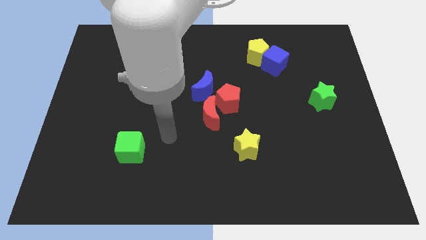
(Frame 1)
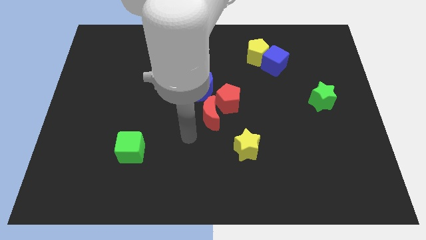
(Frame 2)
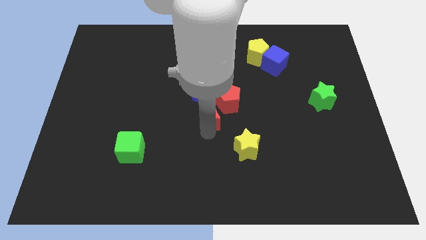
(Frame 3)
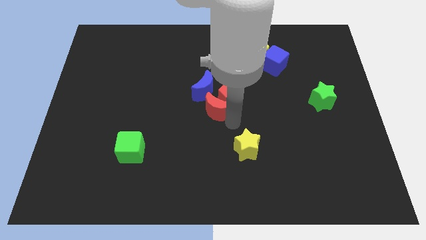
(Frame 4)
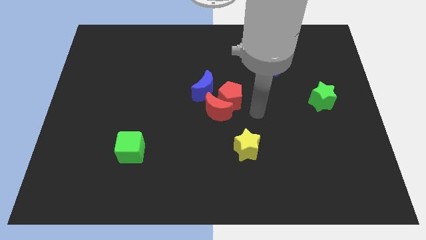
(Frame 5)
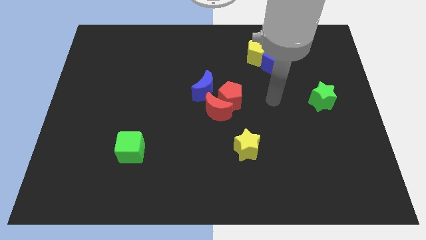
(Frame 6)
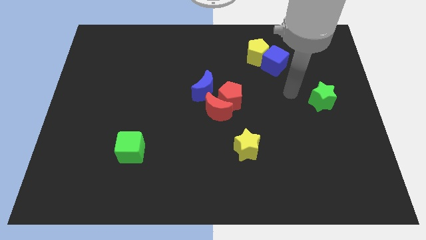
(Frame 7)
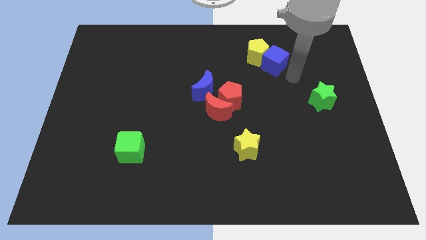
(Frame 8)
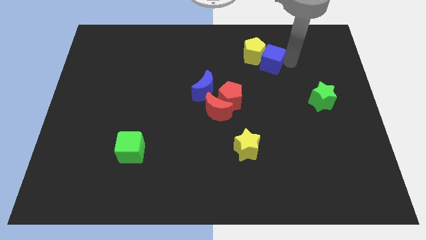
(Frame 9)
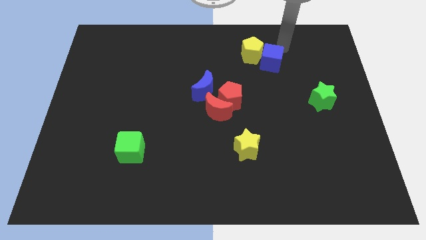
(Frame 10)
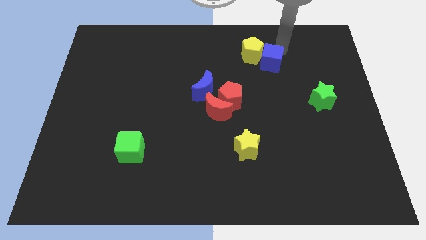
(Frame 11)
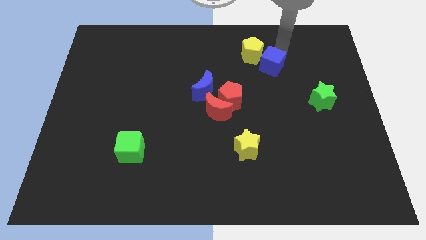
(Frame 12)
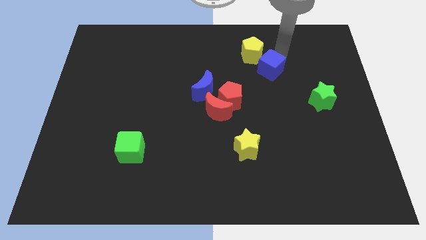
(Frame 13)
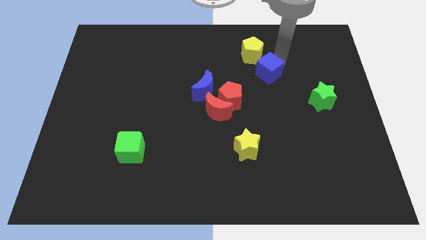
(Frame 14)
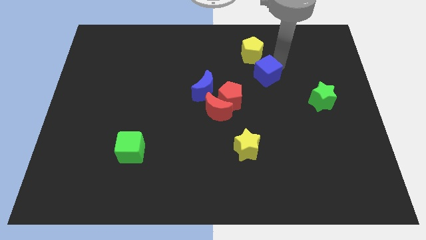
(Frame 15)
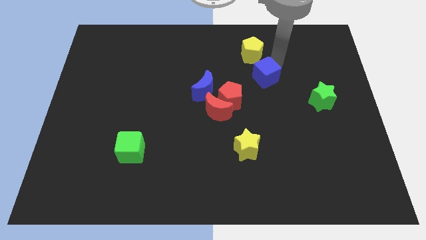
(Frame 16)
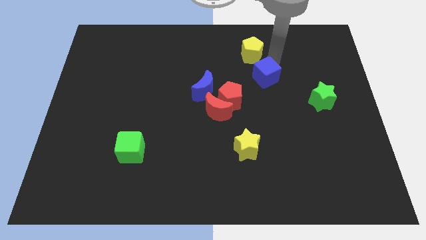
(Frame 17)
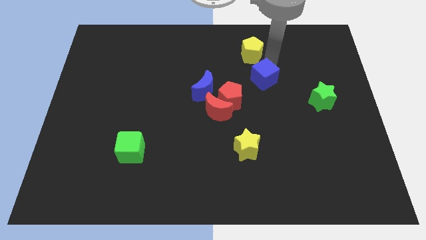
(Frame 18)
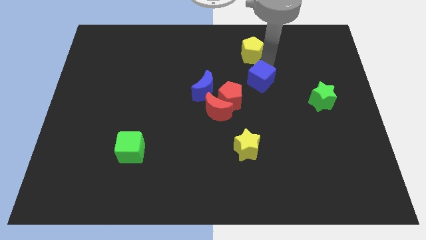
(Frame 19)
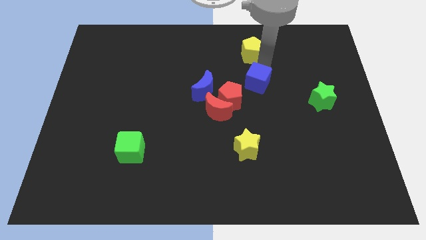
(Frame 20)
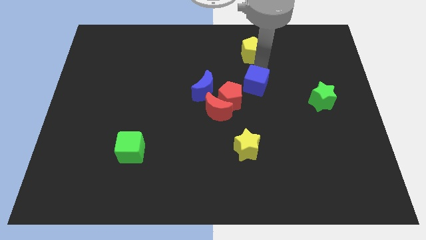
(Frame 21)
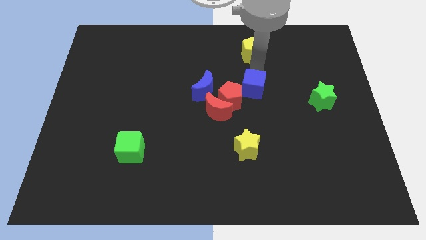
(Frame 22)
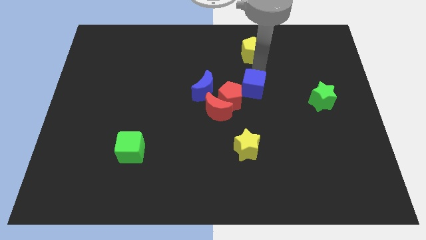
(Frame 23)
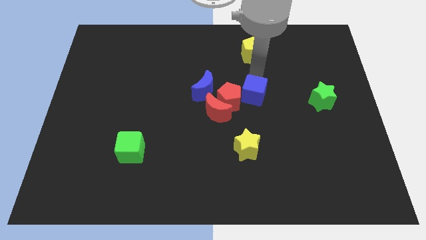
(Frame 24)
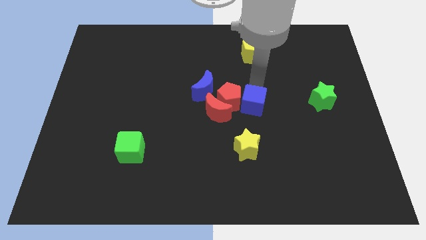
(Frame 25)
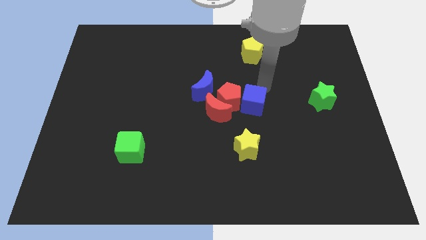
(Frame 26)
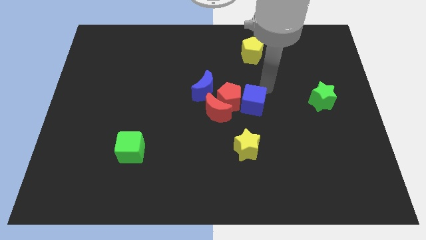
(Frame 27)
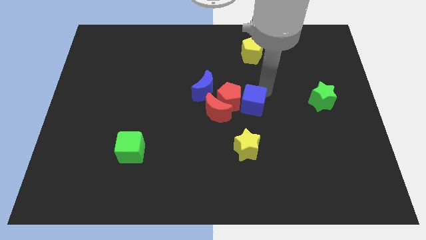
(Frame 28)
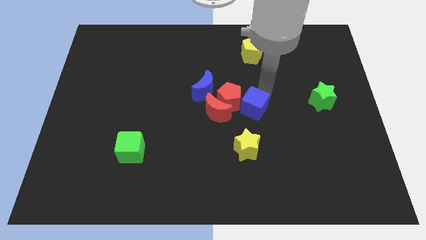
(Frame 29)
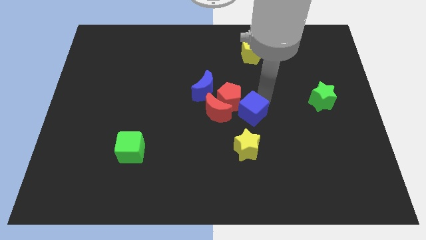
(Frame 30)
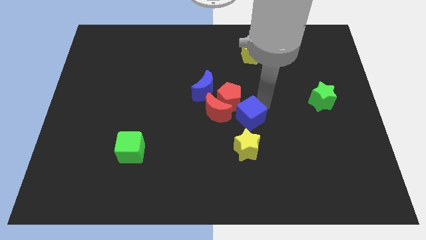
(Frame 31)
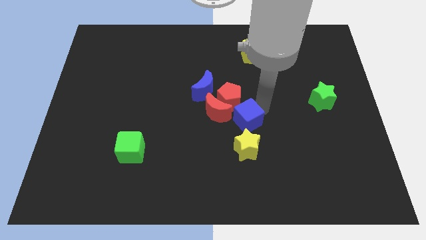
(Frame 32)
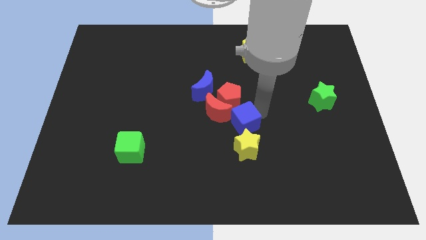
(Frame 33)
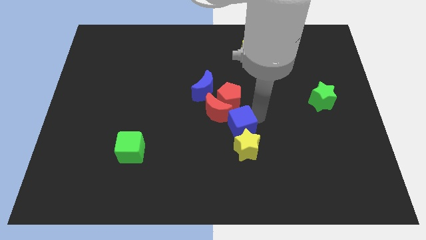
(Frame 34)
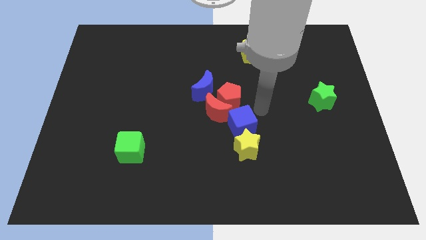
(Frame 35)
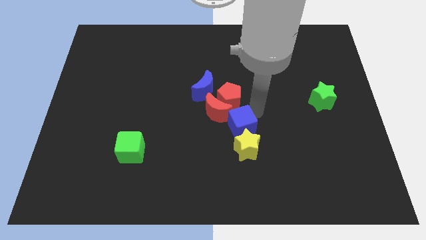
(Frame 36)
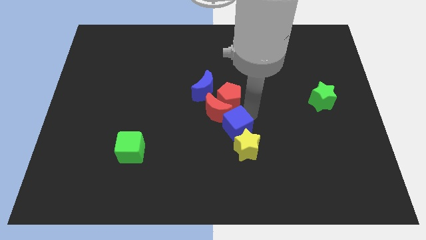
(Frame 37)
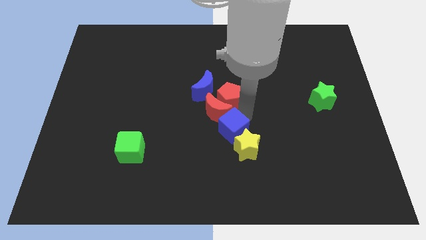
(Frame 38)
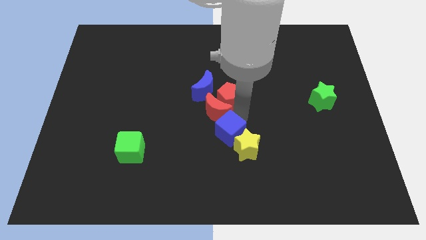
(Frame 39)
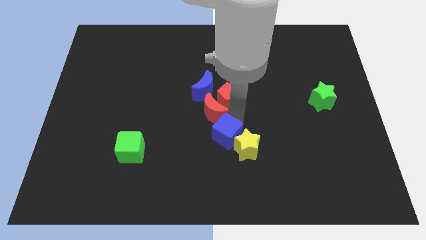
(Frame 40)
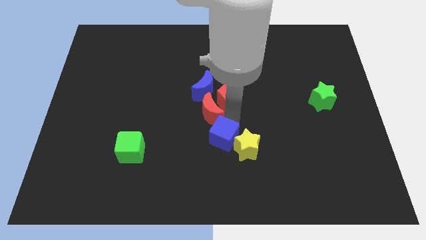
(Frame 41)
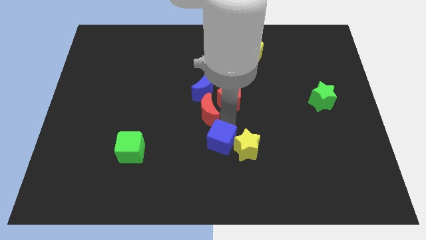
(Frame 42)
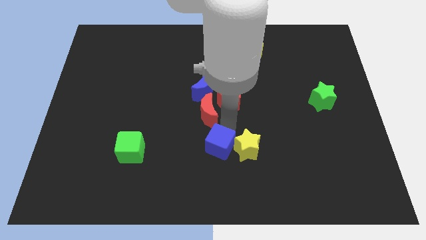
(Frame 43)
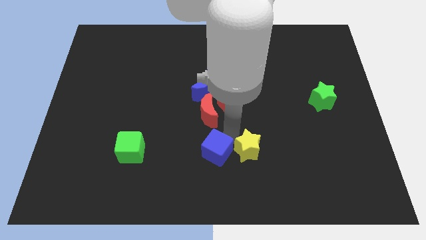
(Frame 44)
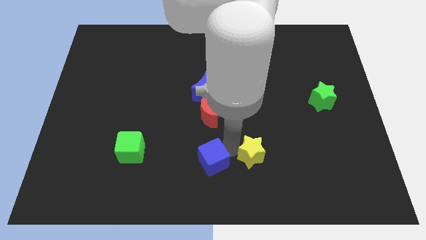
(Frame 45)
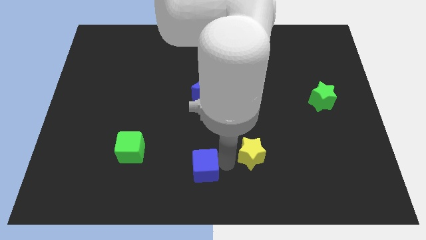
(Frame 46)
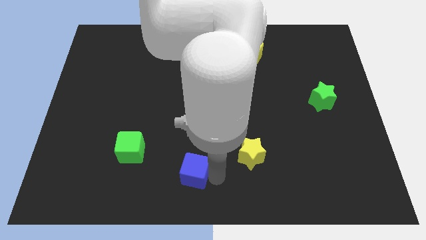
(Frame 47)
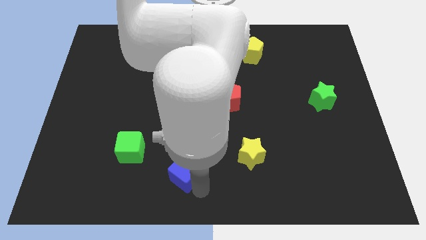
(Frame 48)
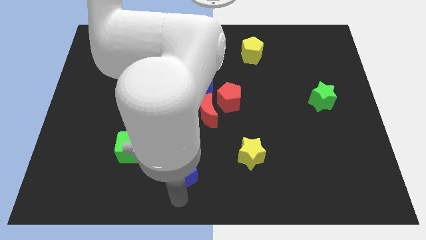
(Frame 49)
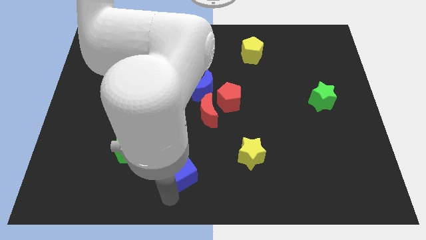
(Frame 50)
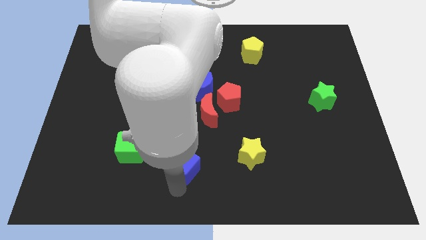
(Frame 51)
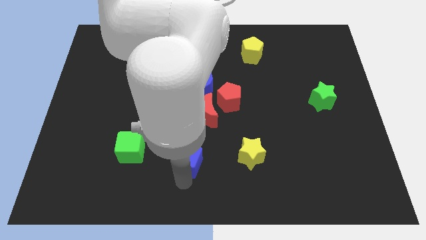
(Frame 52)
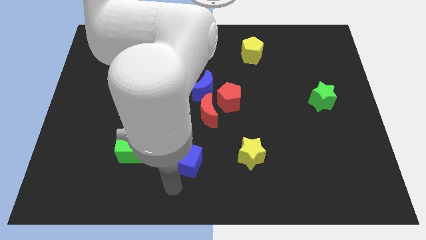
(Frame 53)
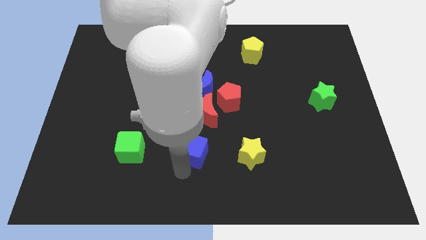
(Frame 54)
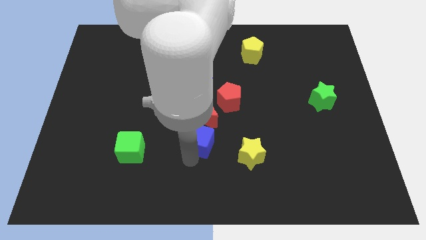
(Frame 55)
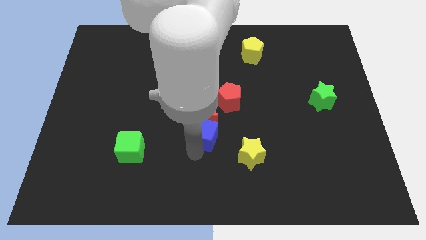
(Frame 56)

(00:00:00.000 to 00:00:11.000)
push the blue cube to the bottom left side of the red pentagon

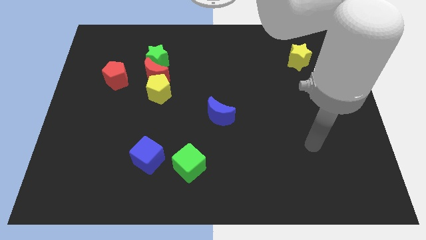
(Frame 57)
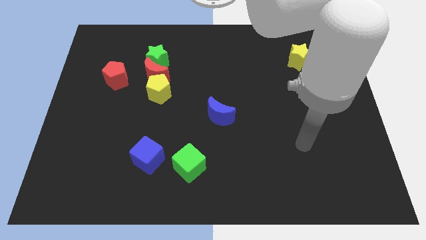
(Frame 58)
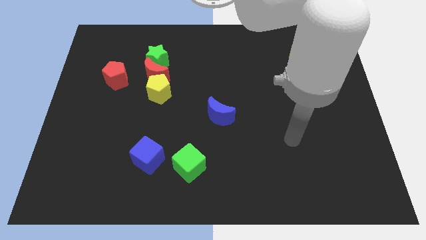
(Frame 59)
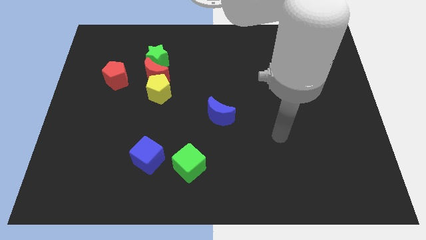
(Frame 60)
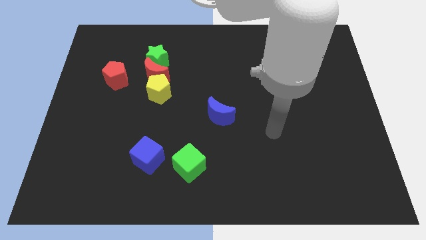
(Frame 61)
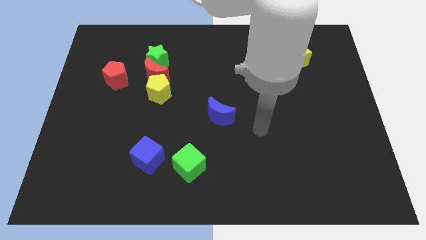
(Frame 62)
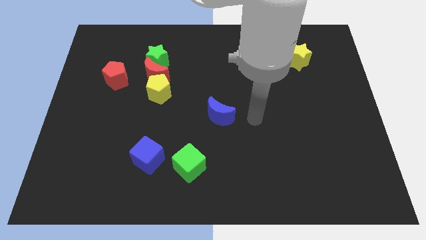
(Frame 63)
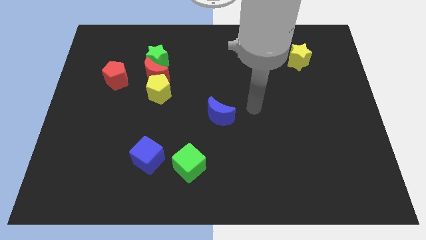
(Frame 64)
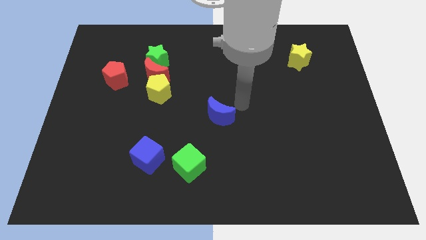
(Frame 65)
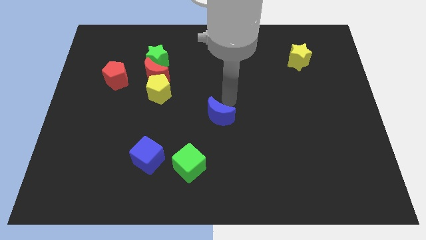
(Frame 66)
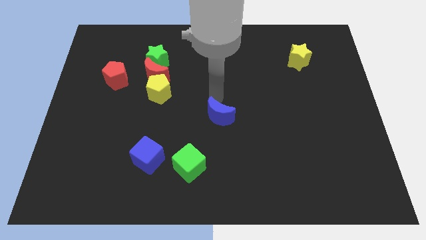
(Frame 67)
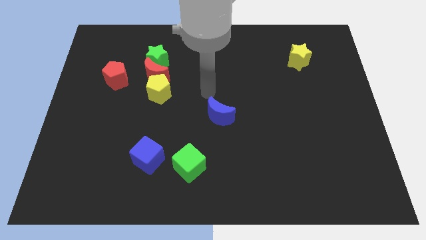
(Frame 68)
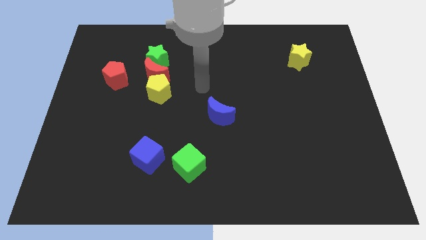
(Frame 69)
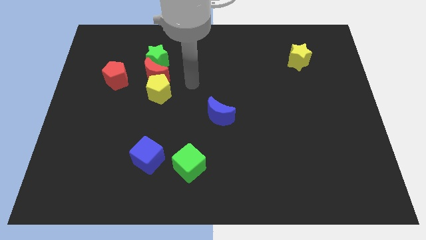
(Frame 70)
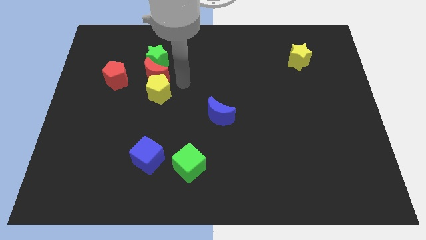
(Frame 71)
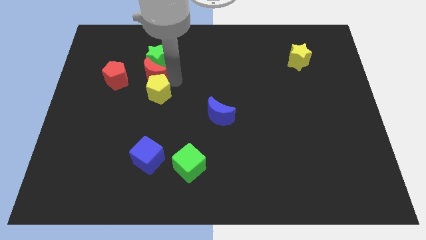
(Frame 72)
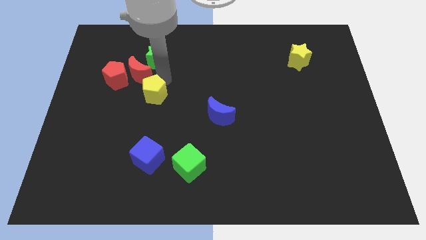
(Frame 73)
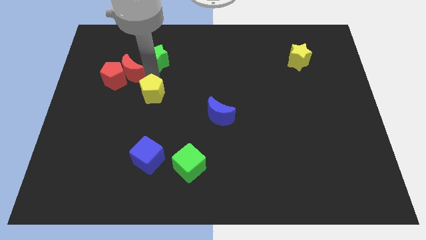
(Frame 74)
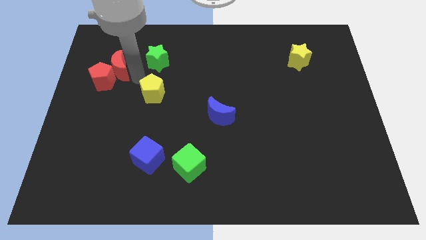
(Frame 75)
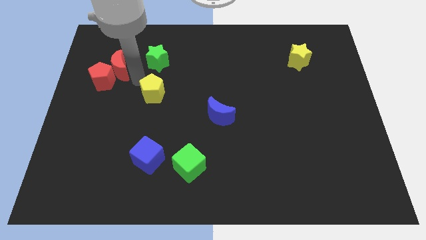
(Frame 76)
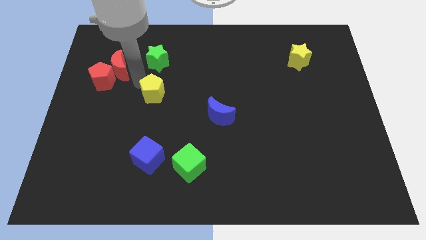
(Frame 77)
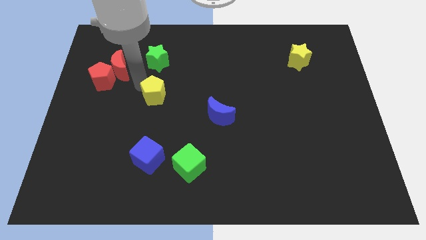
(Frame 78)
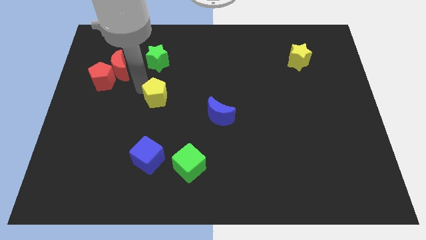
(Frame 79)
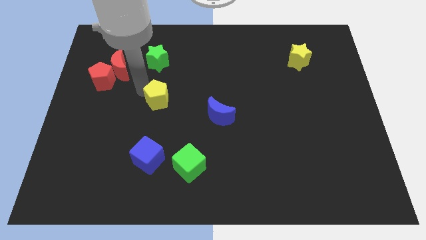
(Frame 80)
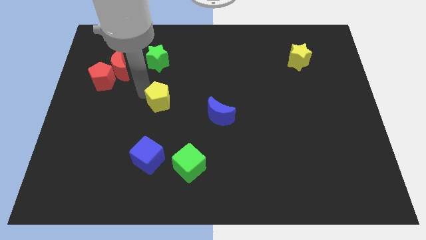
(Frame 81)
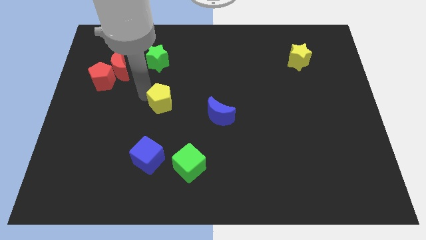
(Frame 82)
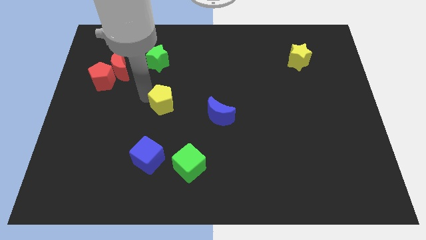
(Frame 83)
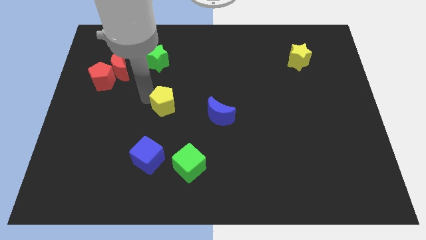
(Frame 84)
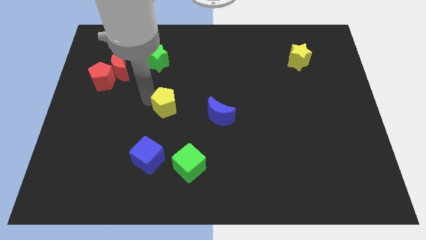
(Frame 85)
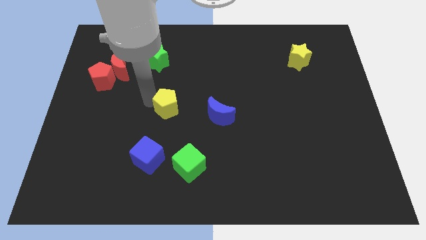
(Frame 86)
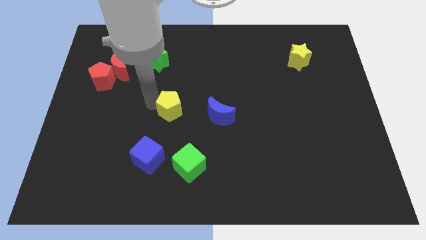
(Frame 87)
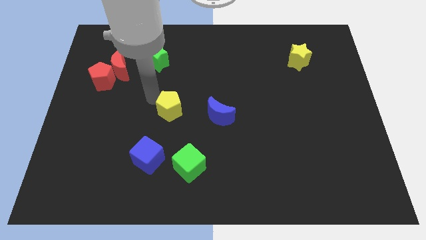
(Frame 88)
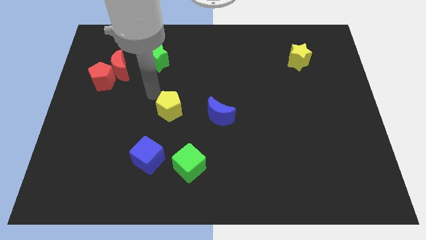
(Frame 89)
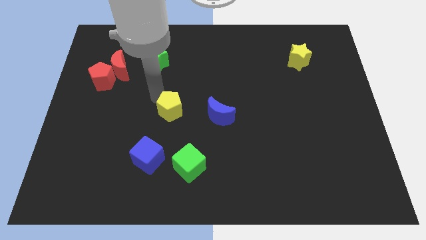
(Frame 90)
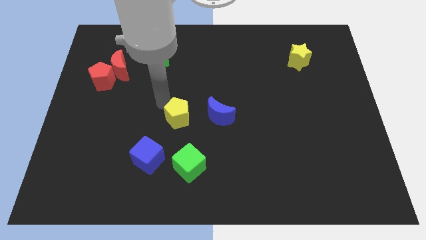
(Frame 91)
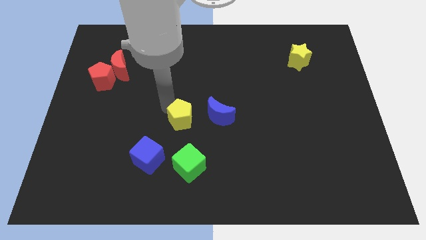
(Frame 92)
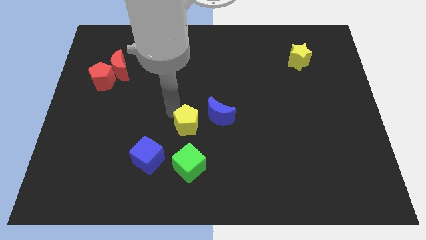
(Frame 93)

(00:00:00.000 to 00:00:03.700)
slide the yellow pentagon diagonally down and to the left of the blue moon
